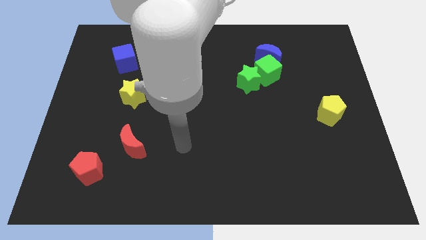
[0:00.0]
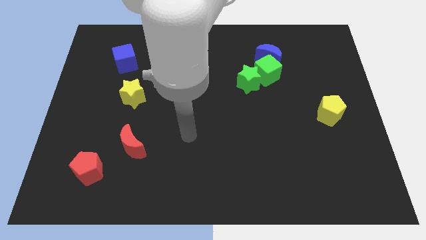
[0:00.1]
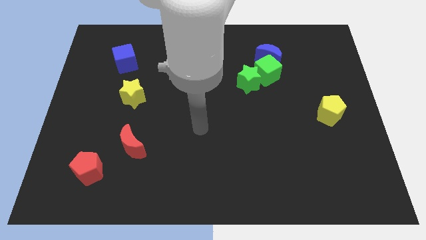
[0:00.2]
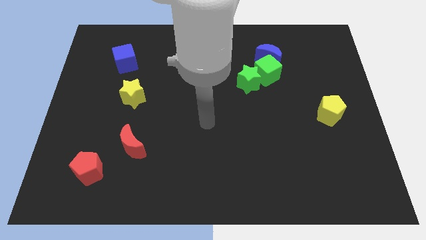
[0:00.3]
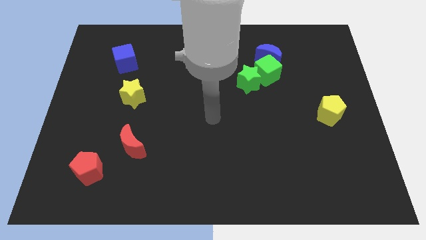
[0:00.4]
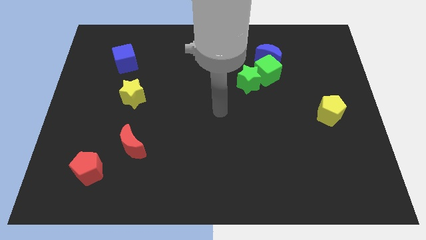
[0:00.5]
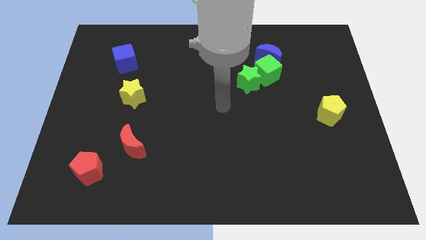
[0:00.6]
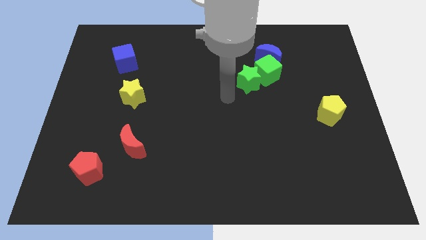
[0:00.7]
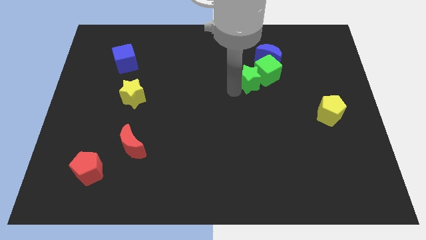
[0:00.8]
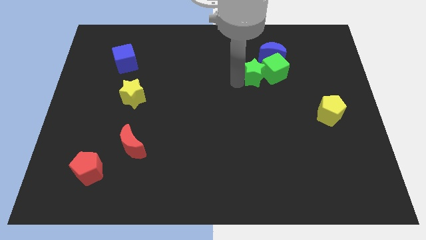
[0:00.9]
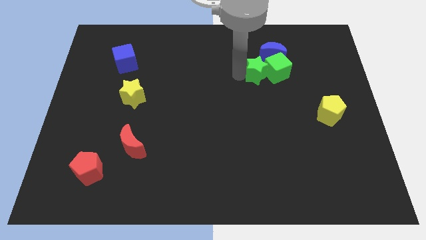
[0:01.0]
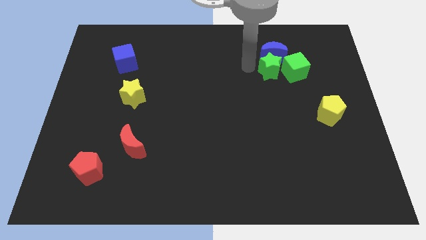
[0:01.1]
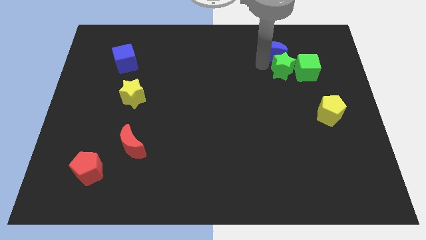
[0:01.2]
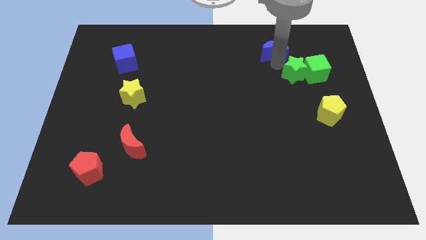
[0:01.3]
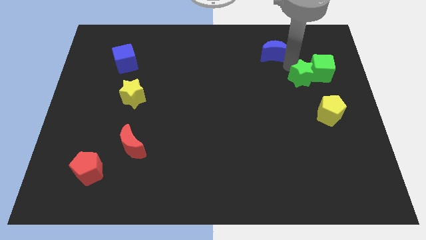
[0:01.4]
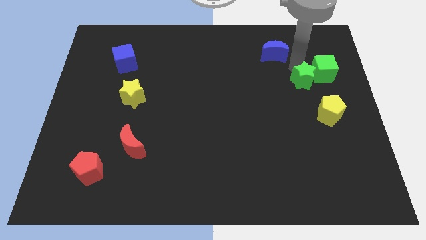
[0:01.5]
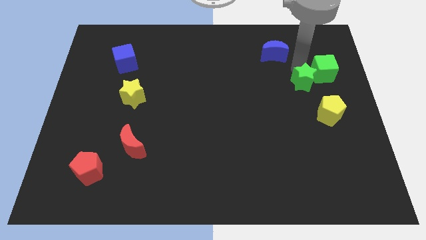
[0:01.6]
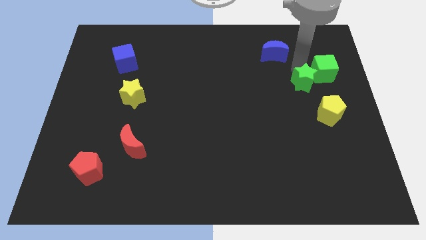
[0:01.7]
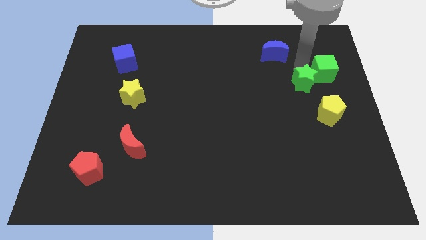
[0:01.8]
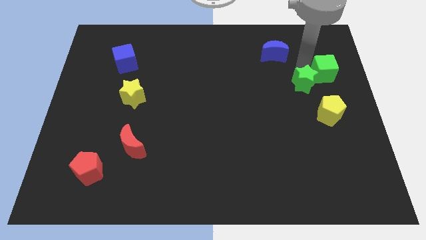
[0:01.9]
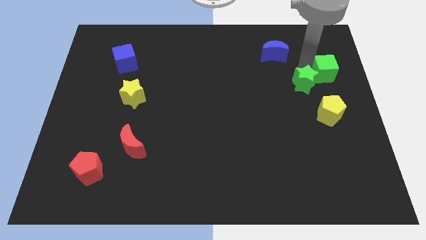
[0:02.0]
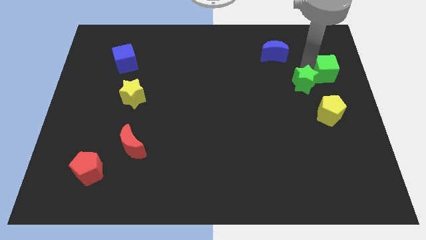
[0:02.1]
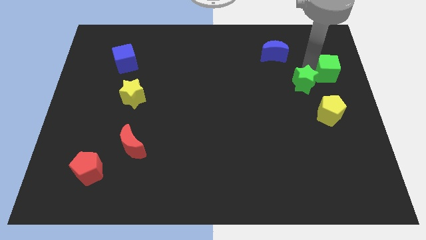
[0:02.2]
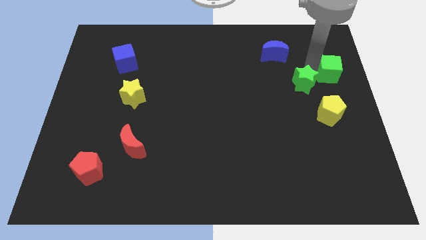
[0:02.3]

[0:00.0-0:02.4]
pull the green cube apart from the green star and blue moon

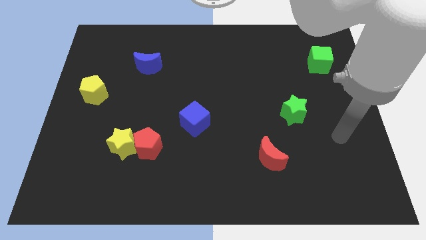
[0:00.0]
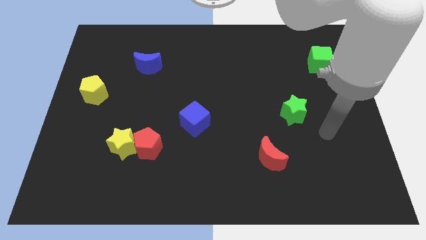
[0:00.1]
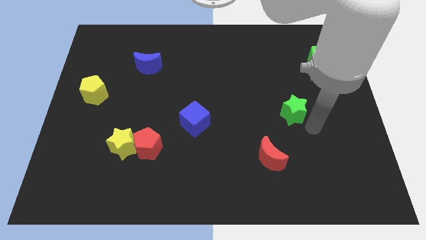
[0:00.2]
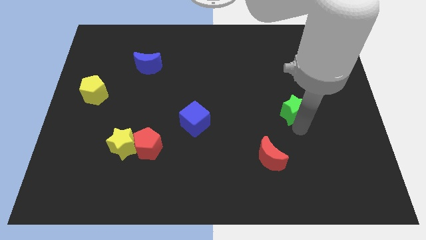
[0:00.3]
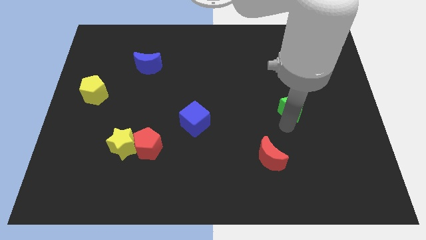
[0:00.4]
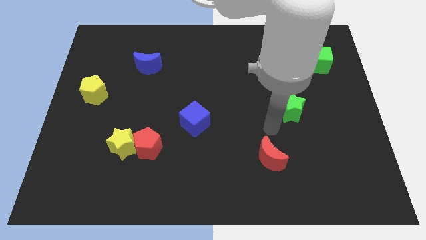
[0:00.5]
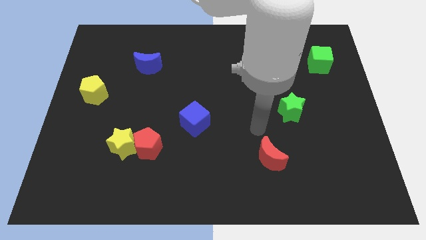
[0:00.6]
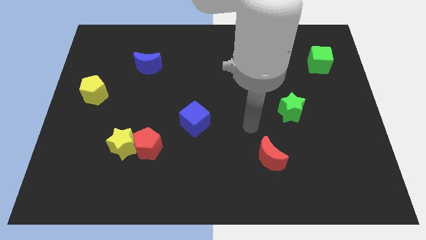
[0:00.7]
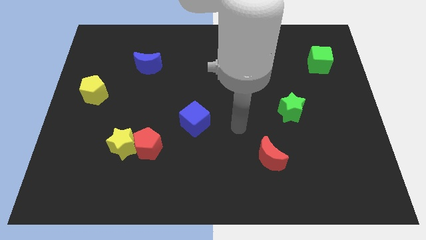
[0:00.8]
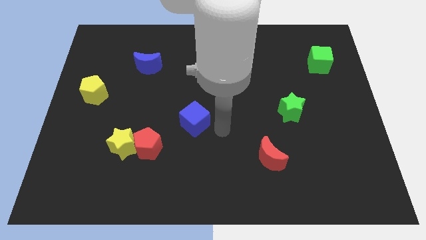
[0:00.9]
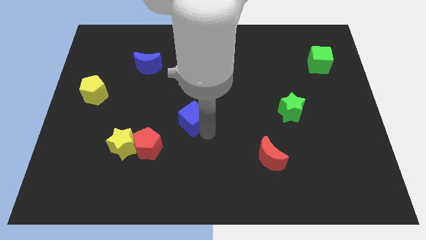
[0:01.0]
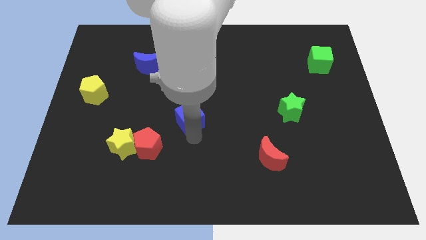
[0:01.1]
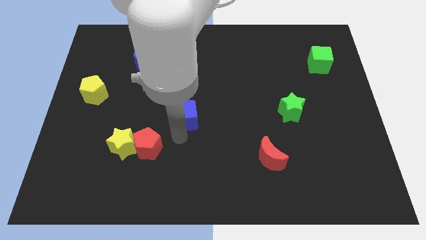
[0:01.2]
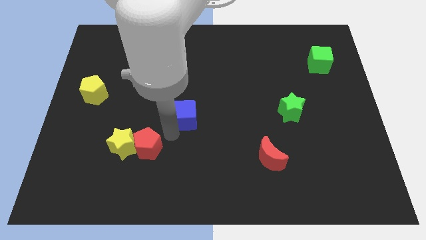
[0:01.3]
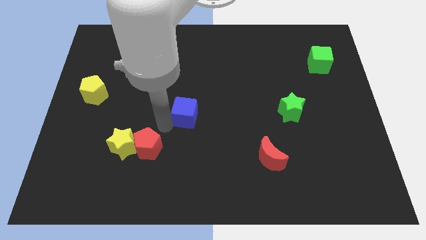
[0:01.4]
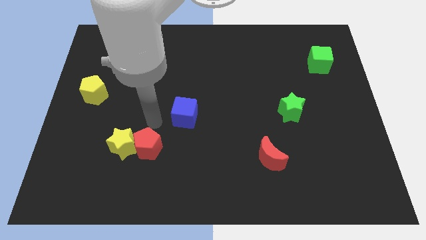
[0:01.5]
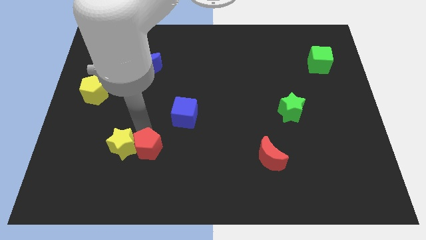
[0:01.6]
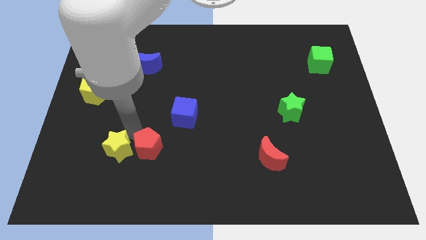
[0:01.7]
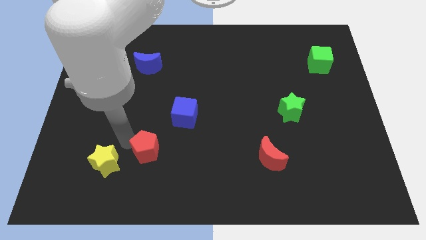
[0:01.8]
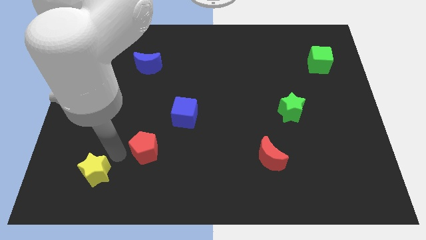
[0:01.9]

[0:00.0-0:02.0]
pull the red pentagon apart from the yellow star

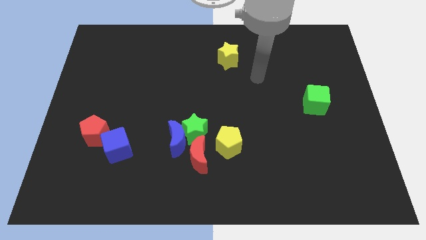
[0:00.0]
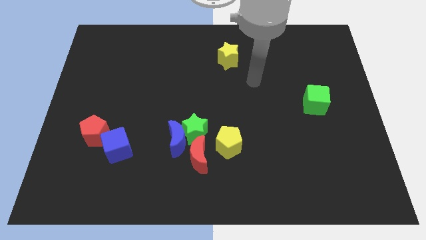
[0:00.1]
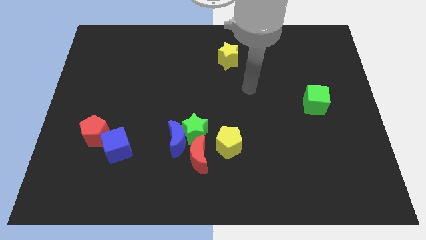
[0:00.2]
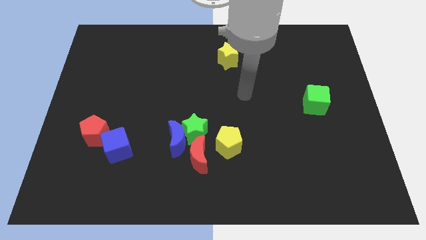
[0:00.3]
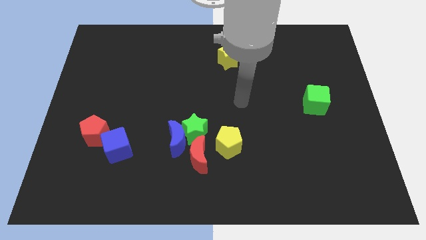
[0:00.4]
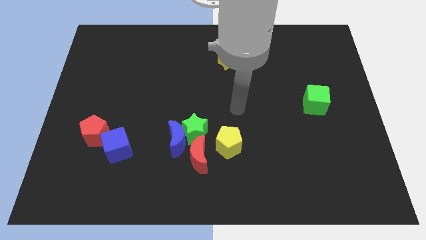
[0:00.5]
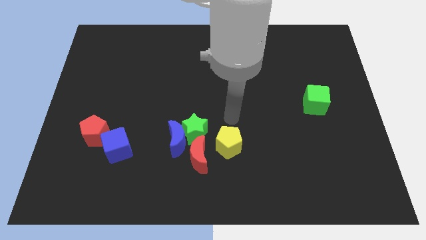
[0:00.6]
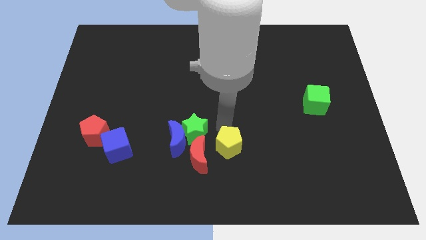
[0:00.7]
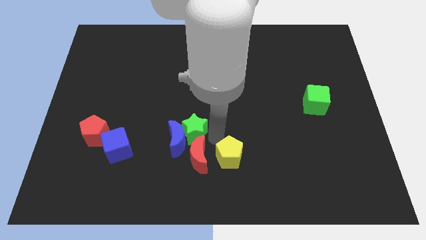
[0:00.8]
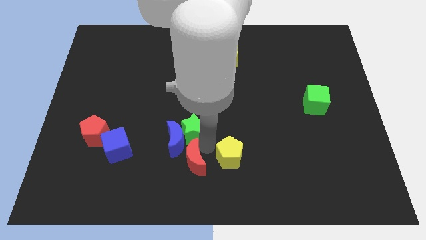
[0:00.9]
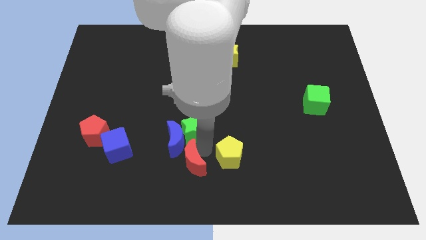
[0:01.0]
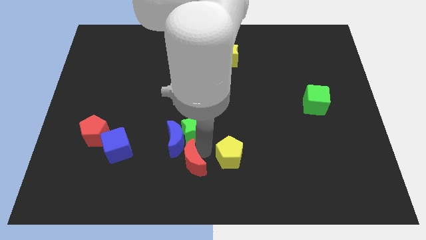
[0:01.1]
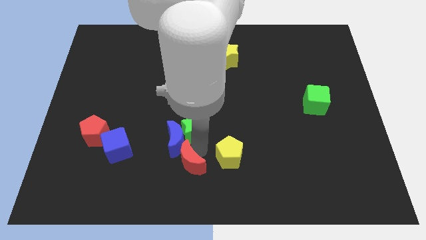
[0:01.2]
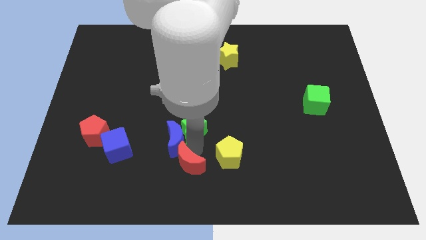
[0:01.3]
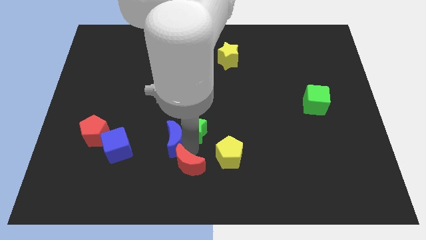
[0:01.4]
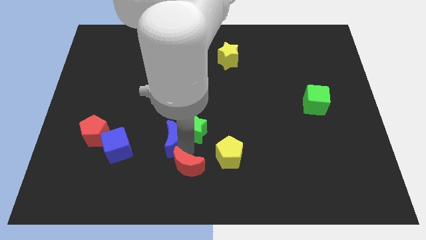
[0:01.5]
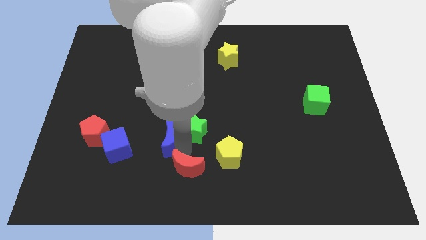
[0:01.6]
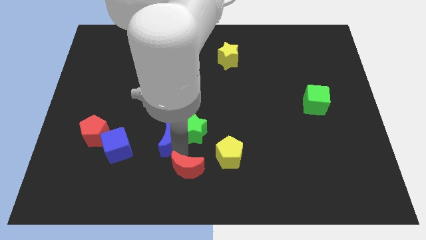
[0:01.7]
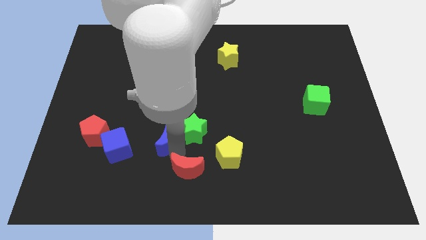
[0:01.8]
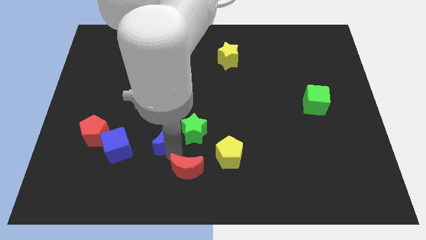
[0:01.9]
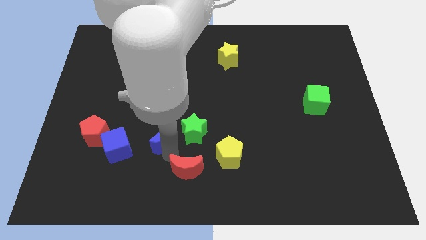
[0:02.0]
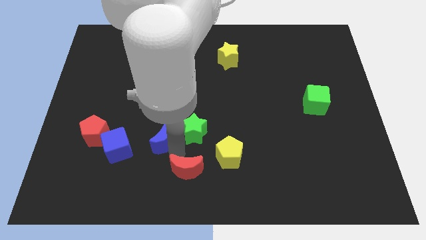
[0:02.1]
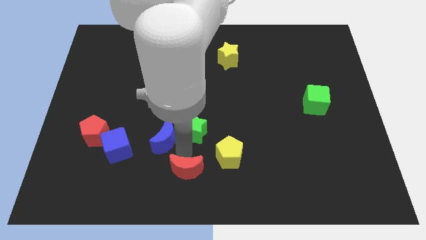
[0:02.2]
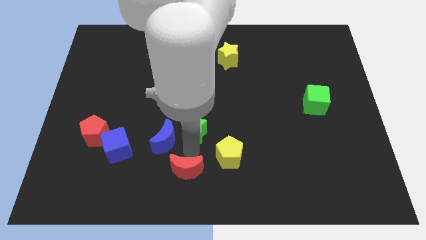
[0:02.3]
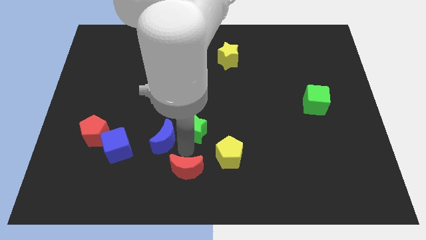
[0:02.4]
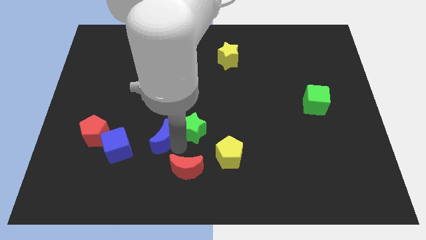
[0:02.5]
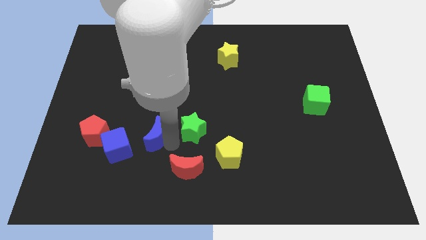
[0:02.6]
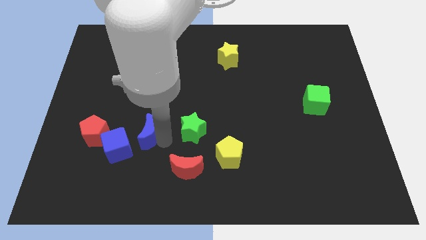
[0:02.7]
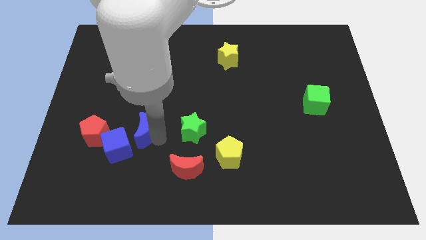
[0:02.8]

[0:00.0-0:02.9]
move the blue moon away from the green star and red moon

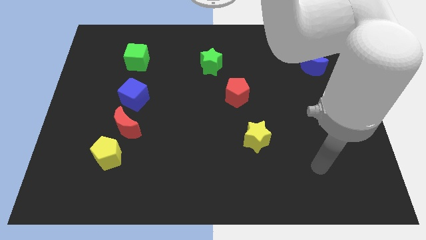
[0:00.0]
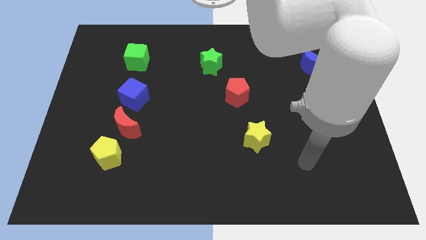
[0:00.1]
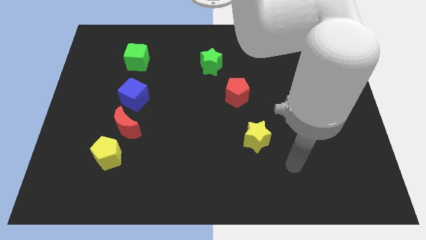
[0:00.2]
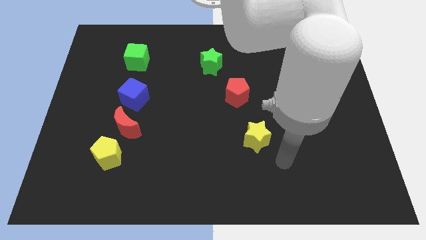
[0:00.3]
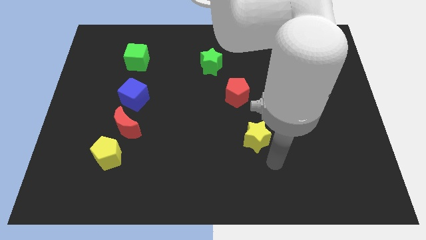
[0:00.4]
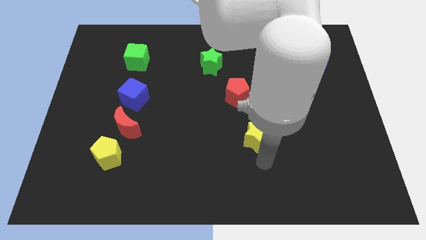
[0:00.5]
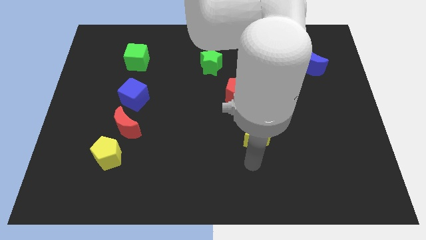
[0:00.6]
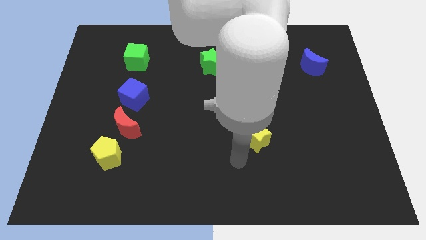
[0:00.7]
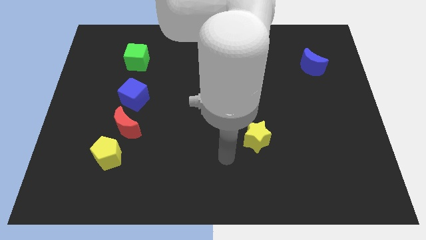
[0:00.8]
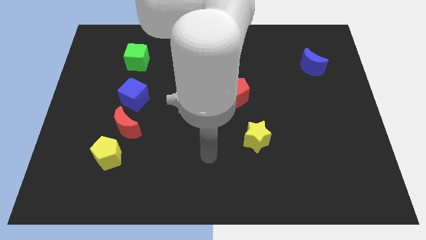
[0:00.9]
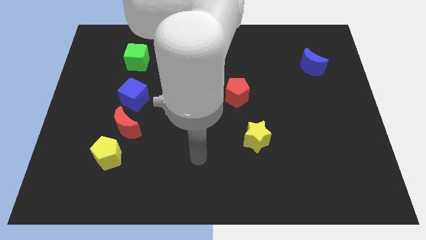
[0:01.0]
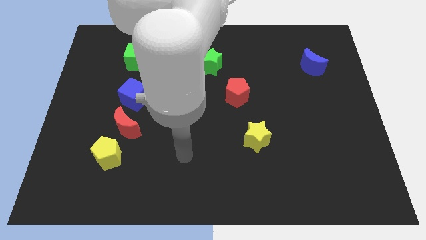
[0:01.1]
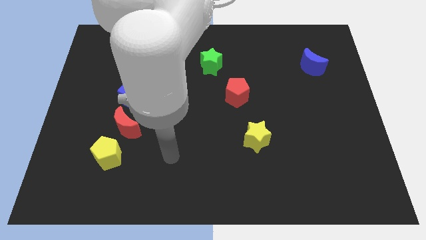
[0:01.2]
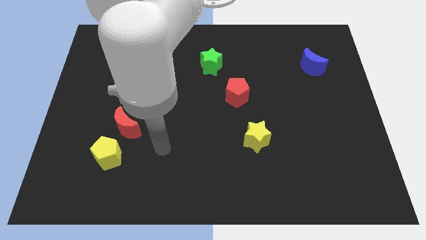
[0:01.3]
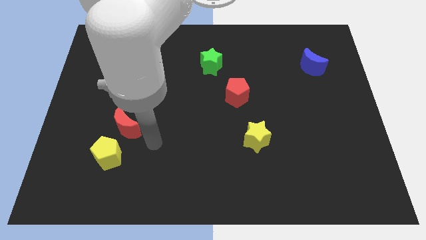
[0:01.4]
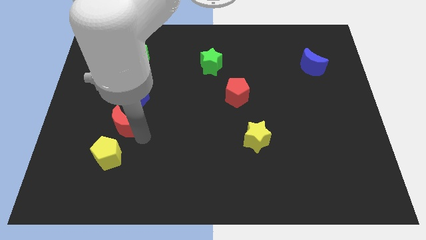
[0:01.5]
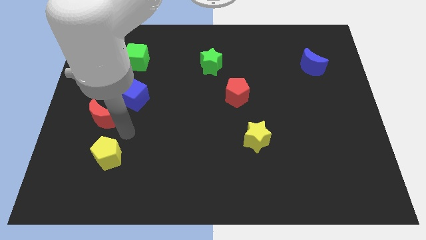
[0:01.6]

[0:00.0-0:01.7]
separate the yellow pentagon from the red moon

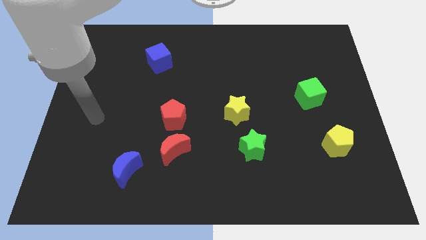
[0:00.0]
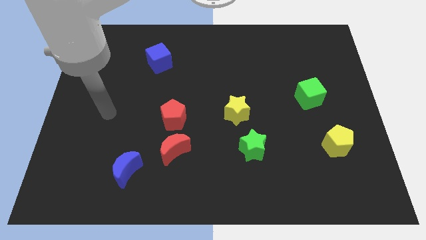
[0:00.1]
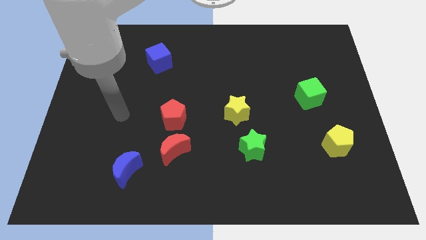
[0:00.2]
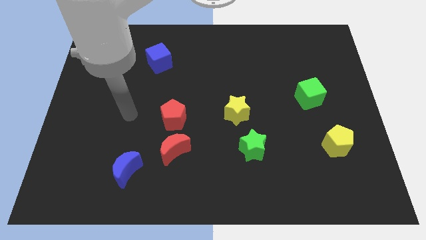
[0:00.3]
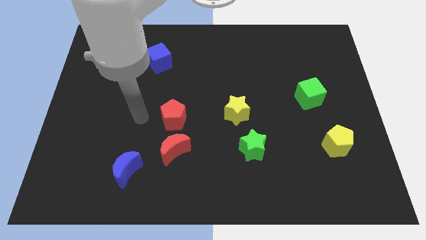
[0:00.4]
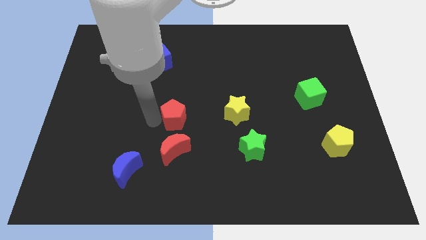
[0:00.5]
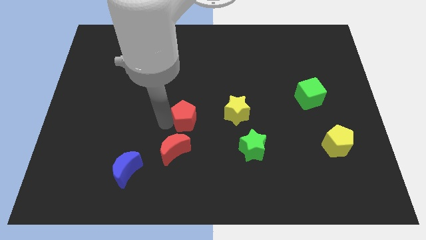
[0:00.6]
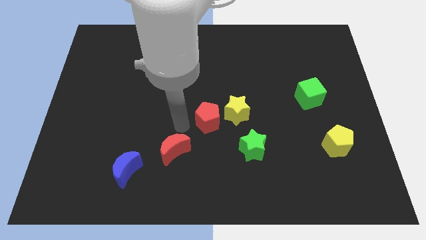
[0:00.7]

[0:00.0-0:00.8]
pull the red moon apart from the red pentagon
